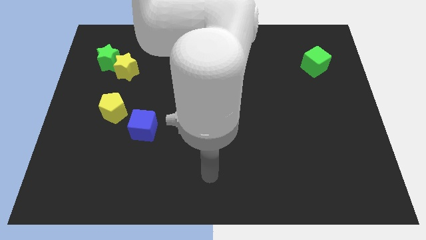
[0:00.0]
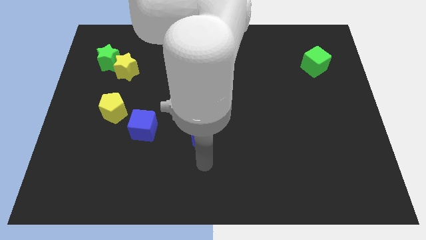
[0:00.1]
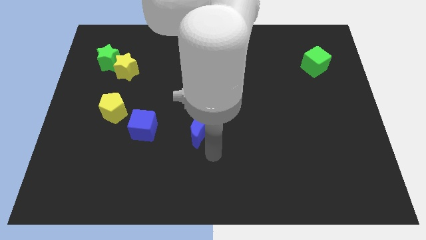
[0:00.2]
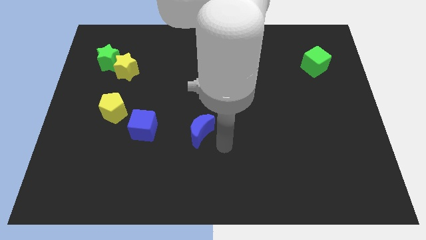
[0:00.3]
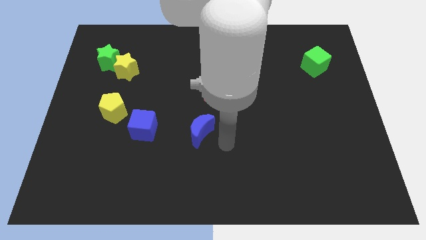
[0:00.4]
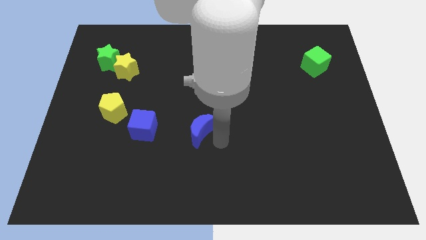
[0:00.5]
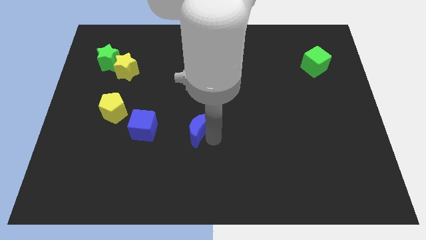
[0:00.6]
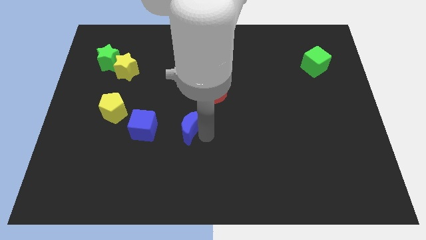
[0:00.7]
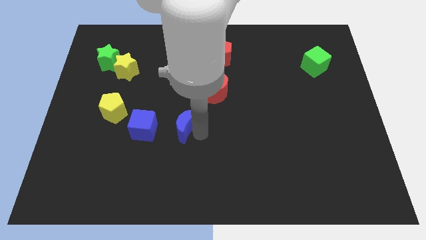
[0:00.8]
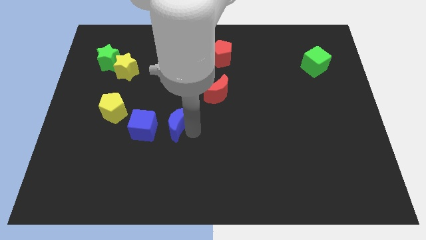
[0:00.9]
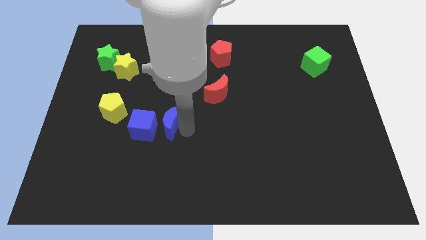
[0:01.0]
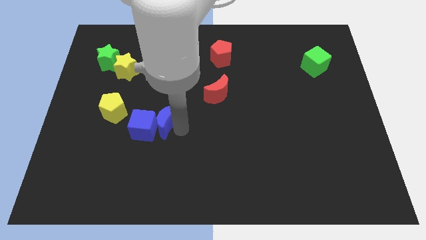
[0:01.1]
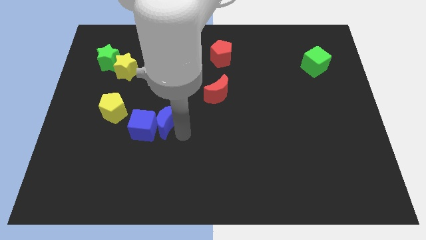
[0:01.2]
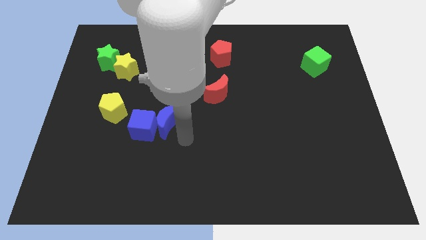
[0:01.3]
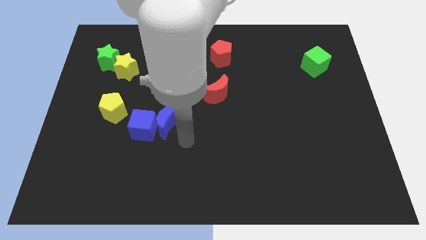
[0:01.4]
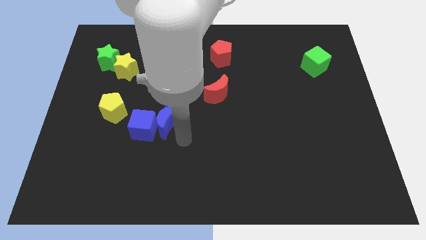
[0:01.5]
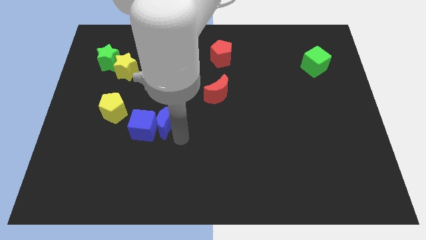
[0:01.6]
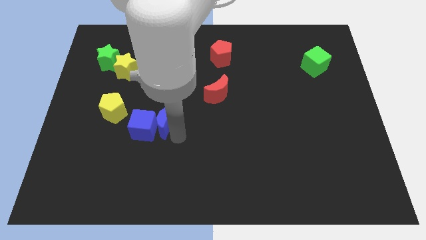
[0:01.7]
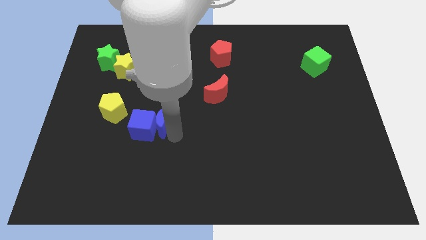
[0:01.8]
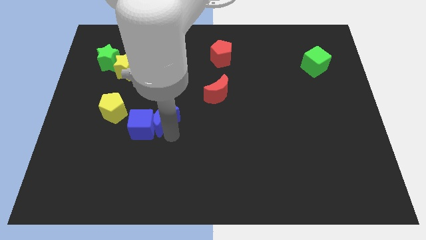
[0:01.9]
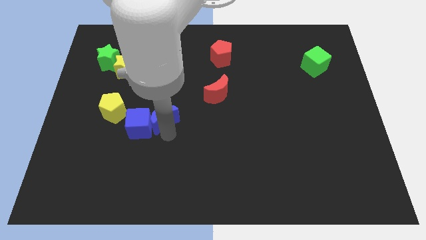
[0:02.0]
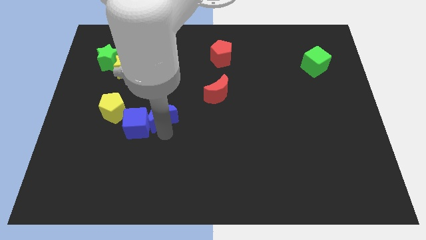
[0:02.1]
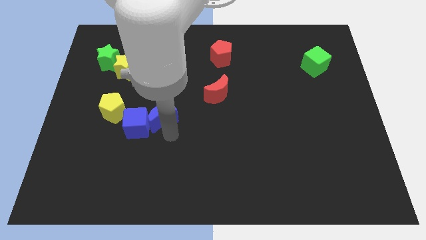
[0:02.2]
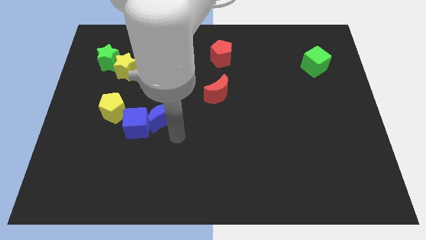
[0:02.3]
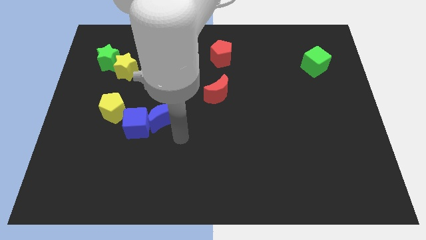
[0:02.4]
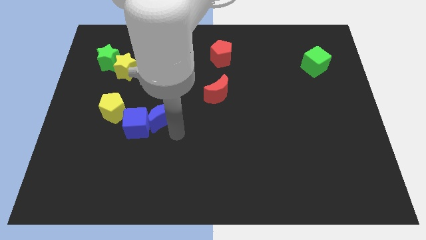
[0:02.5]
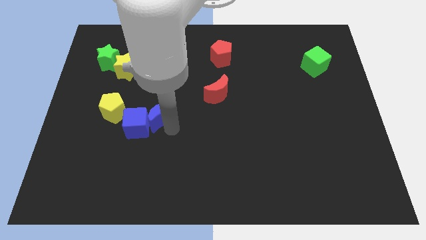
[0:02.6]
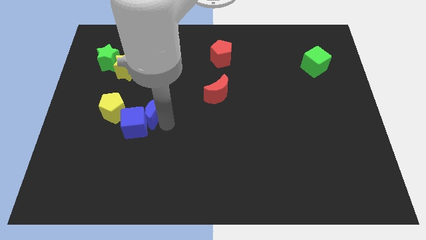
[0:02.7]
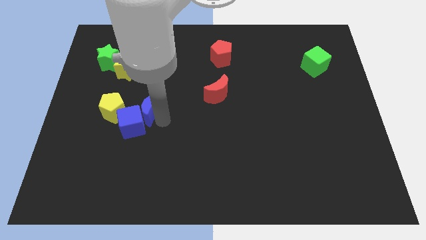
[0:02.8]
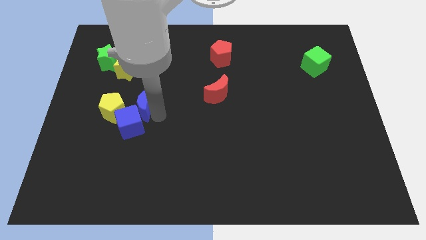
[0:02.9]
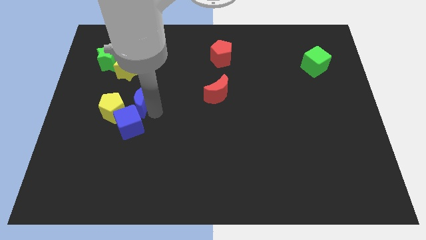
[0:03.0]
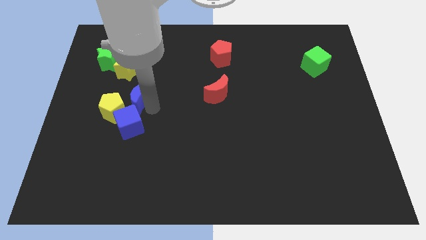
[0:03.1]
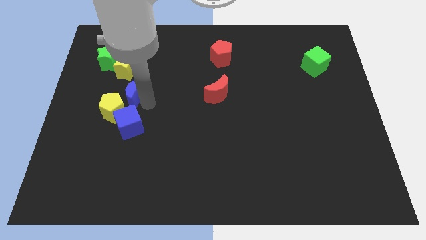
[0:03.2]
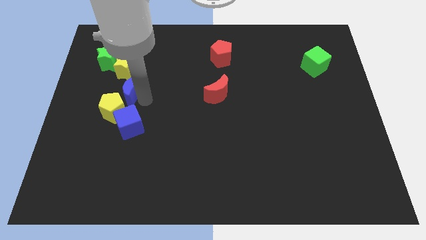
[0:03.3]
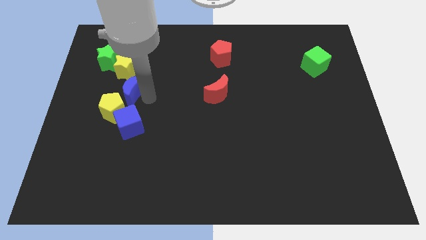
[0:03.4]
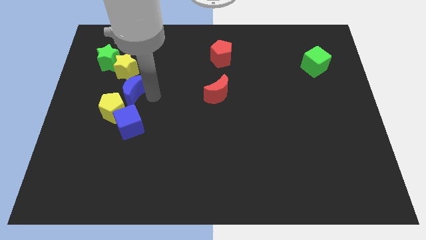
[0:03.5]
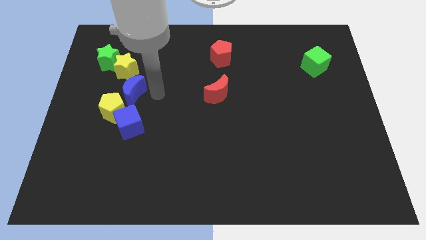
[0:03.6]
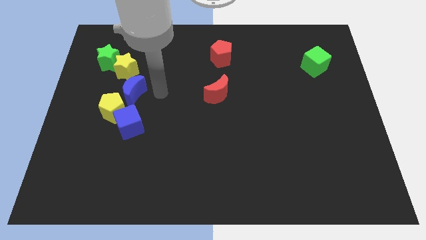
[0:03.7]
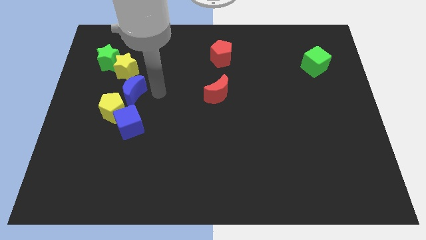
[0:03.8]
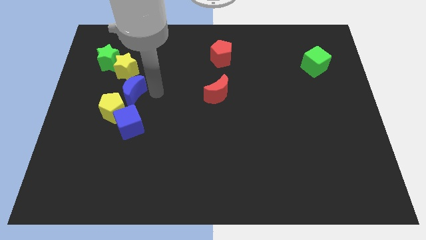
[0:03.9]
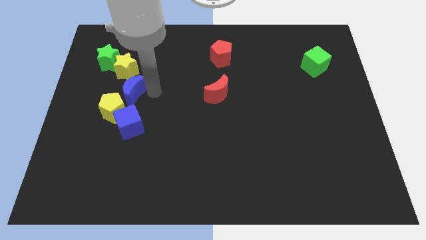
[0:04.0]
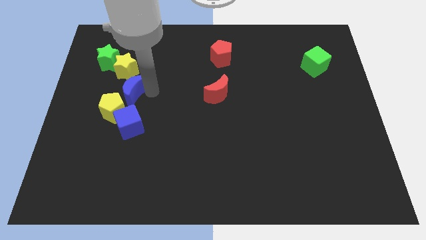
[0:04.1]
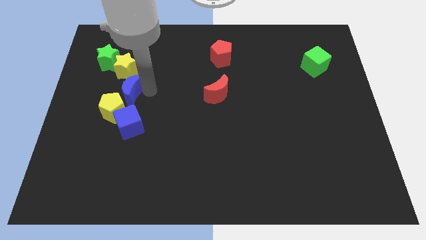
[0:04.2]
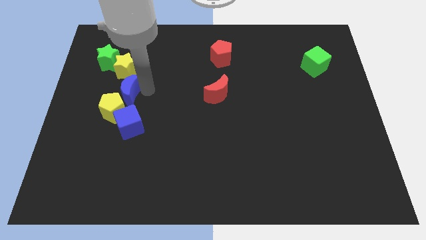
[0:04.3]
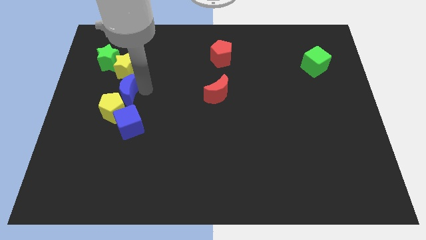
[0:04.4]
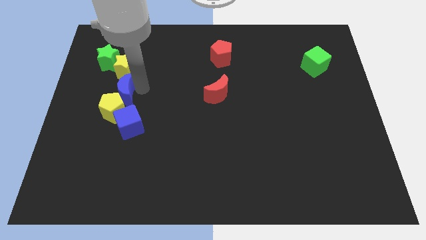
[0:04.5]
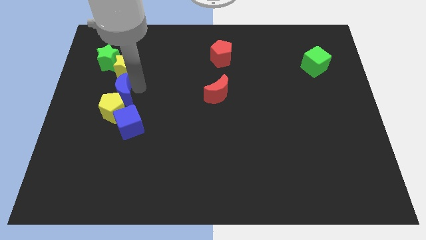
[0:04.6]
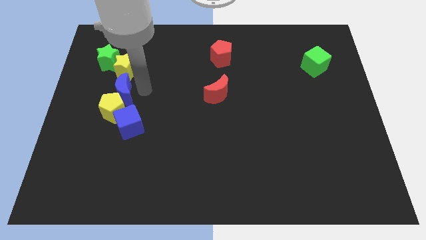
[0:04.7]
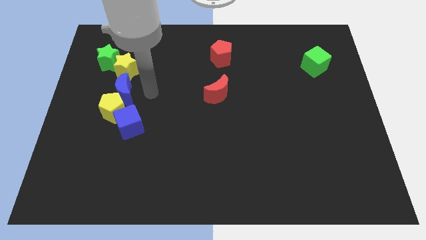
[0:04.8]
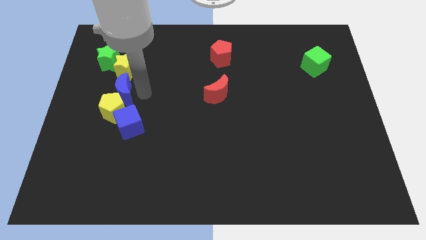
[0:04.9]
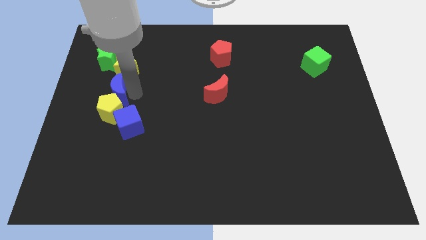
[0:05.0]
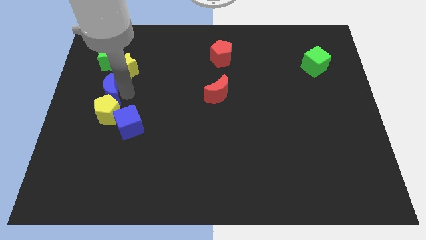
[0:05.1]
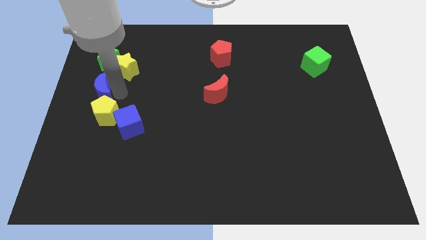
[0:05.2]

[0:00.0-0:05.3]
slide the blue moon to the center left

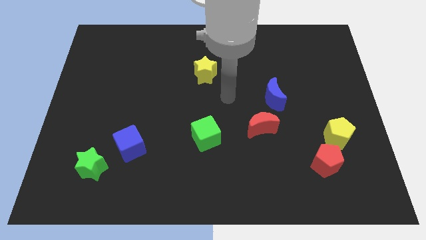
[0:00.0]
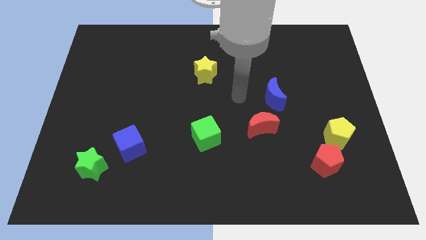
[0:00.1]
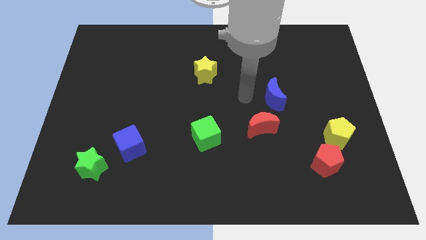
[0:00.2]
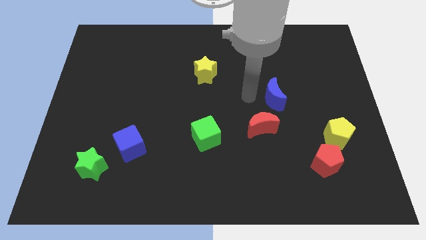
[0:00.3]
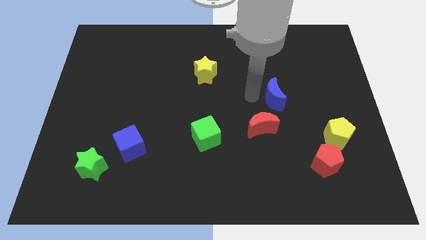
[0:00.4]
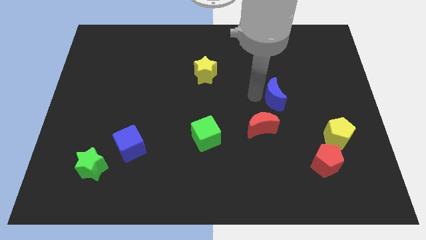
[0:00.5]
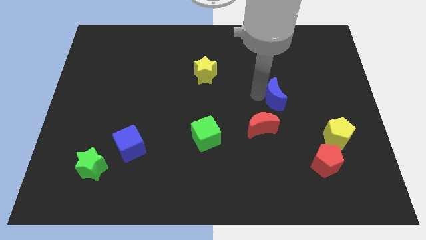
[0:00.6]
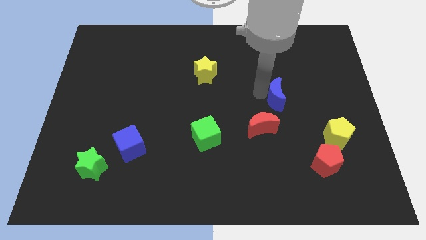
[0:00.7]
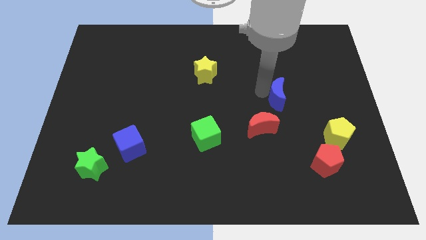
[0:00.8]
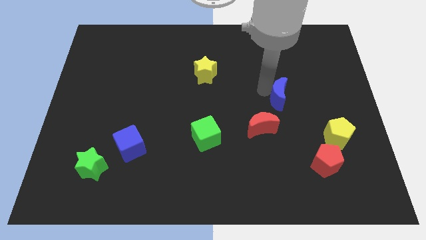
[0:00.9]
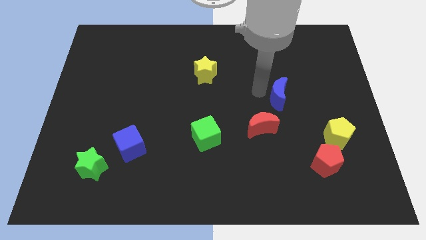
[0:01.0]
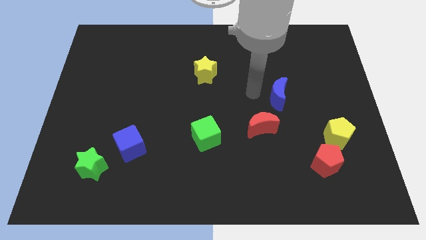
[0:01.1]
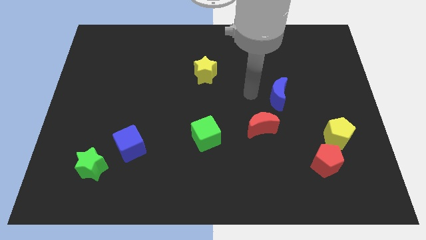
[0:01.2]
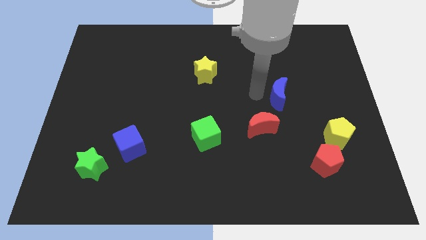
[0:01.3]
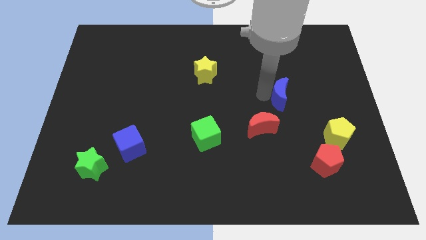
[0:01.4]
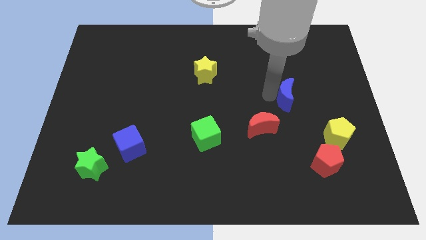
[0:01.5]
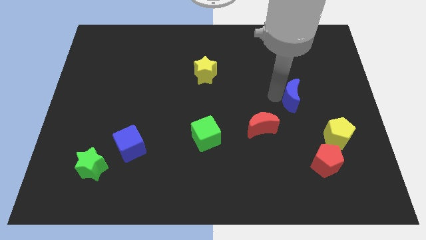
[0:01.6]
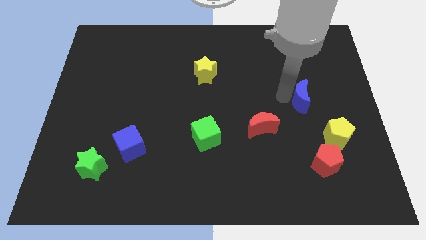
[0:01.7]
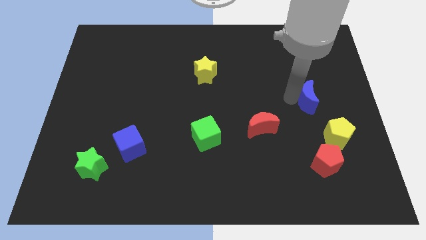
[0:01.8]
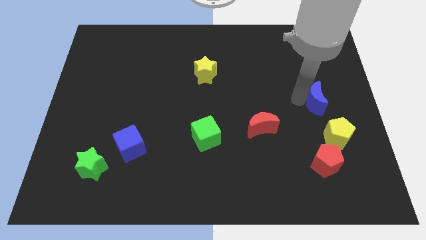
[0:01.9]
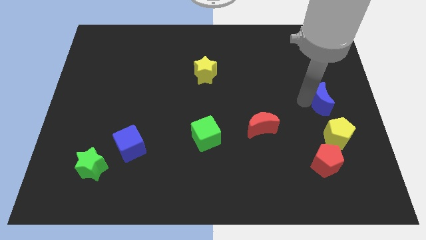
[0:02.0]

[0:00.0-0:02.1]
slide the blue moon to the center right
